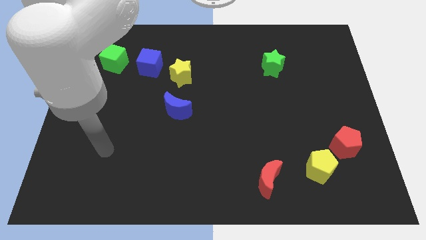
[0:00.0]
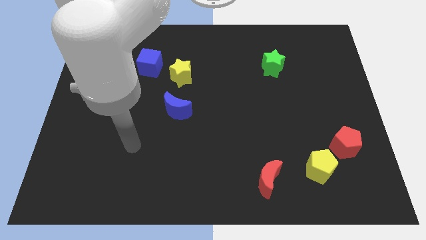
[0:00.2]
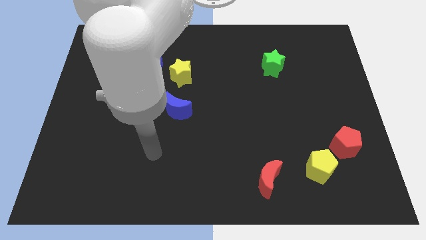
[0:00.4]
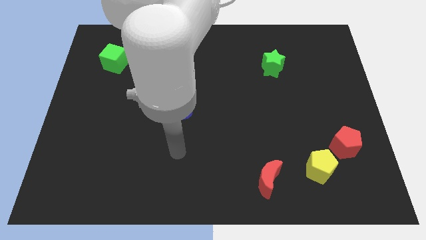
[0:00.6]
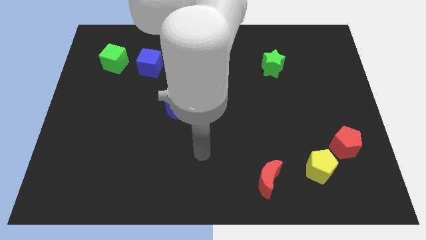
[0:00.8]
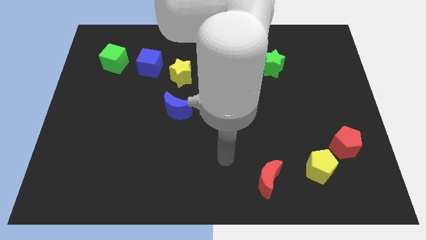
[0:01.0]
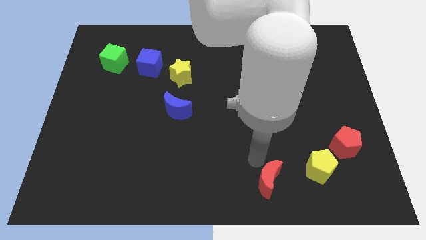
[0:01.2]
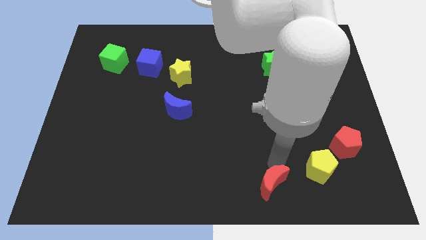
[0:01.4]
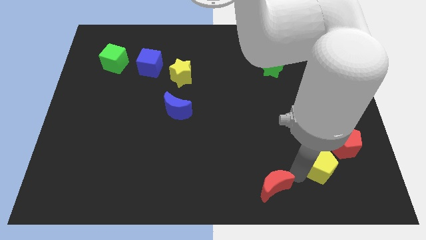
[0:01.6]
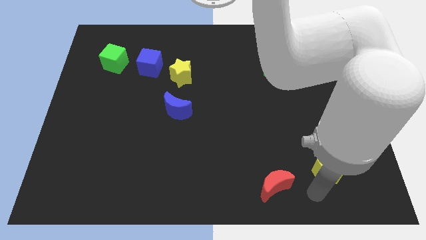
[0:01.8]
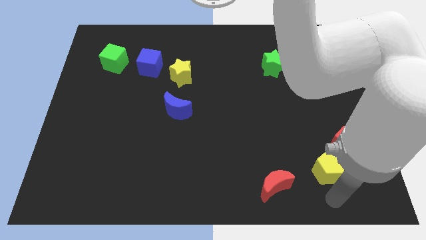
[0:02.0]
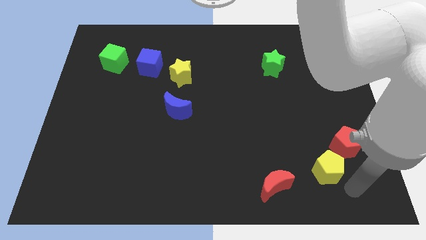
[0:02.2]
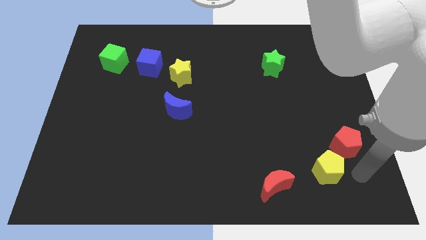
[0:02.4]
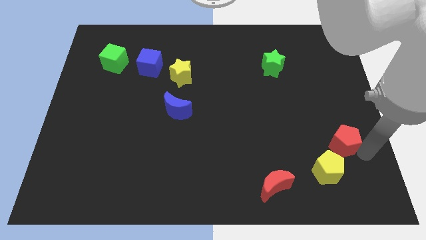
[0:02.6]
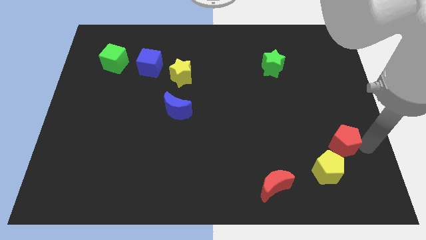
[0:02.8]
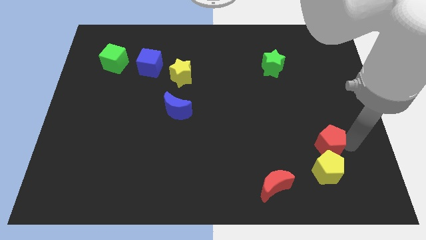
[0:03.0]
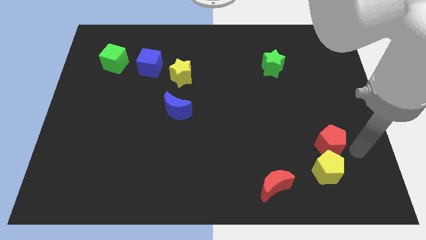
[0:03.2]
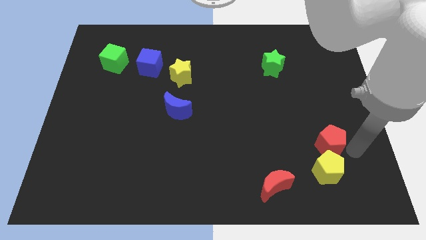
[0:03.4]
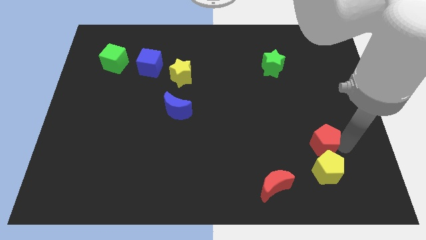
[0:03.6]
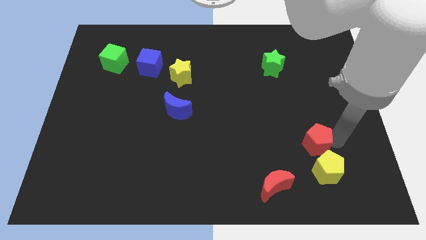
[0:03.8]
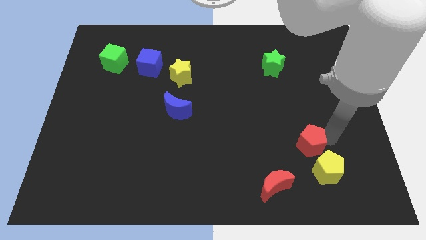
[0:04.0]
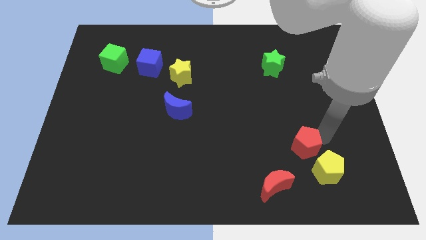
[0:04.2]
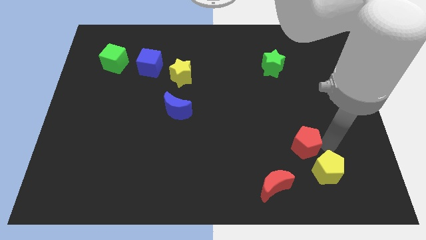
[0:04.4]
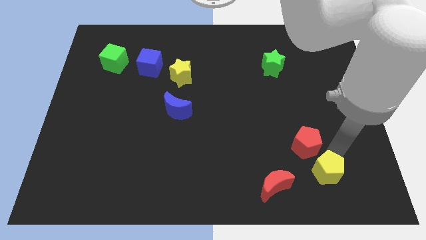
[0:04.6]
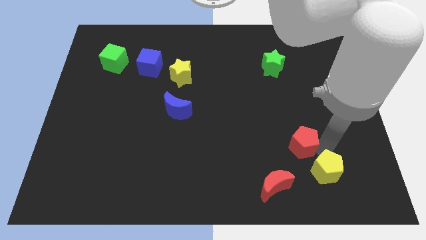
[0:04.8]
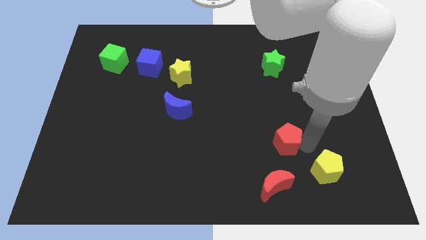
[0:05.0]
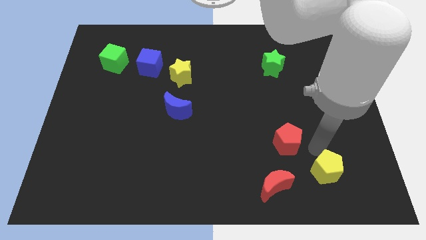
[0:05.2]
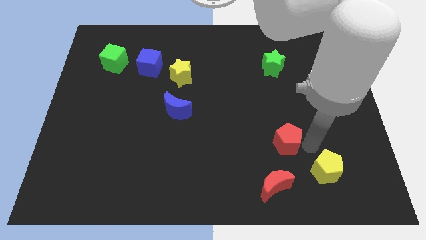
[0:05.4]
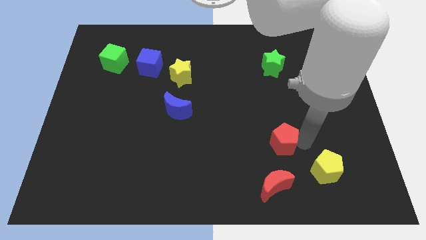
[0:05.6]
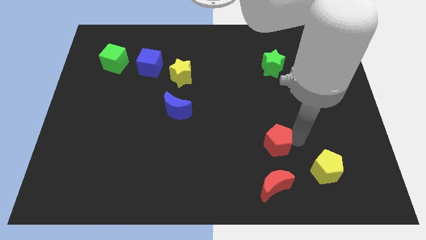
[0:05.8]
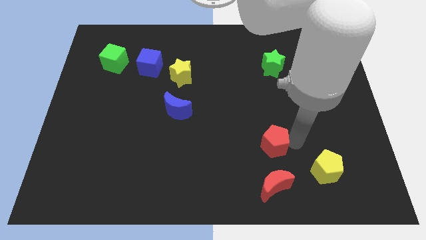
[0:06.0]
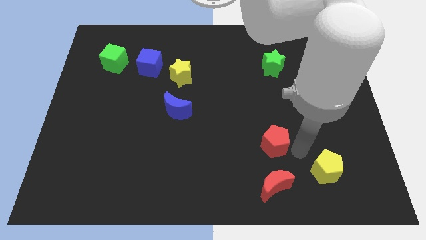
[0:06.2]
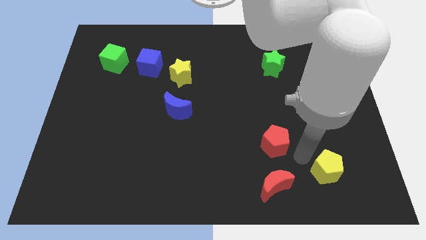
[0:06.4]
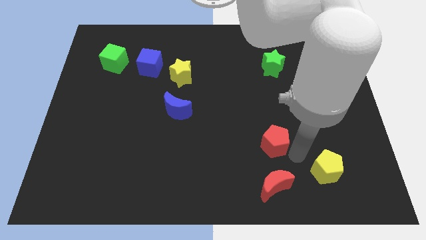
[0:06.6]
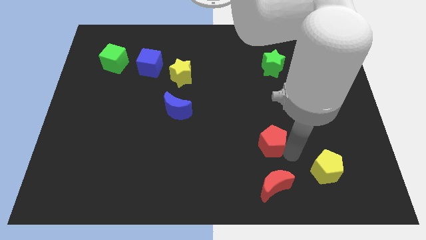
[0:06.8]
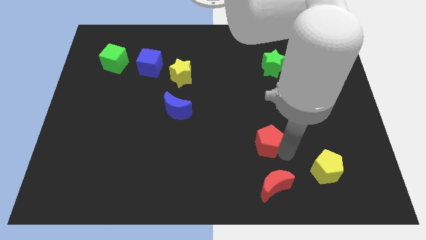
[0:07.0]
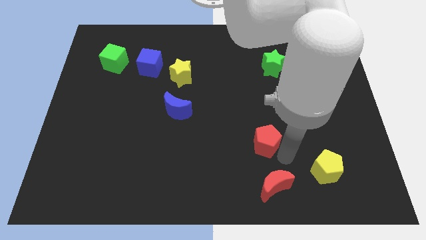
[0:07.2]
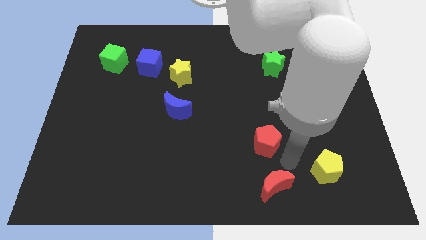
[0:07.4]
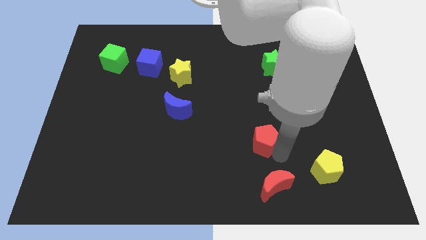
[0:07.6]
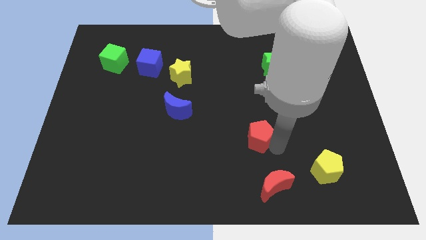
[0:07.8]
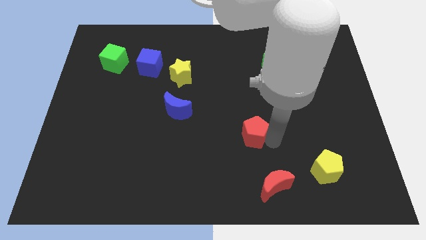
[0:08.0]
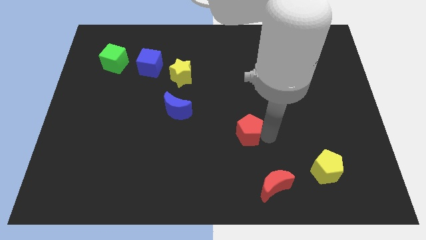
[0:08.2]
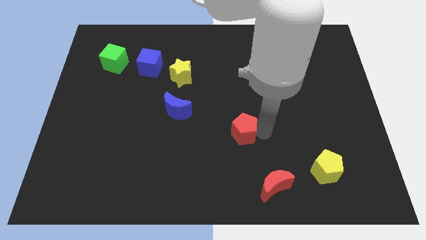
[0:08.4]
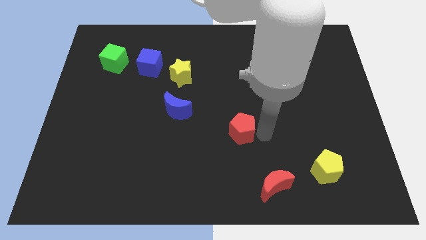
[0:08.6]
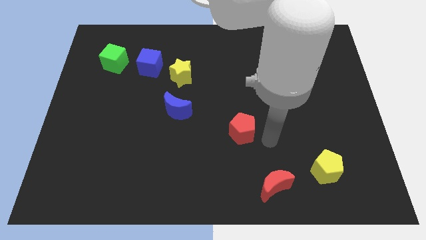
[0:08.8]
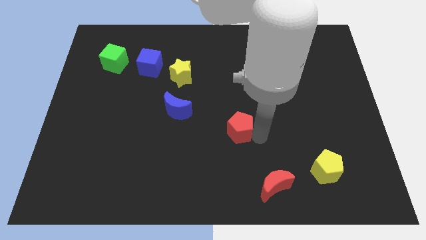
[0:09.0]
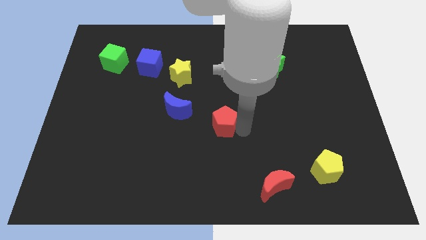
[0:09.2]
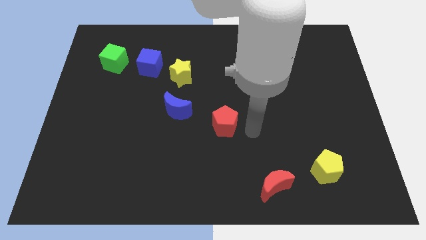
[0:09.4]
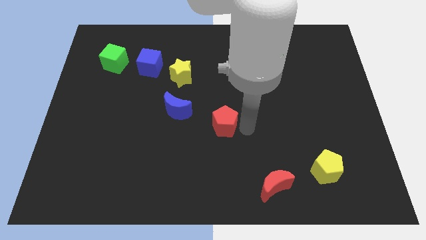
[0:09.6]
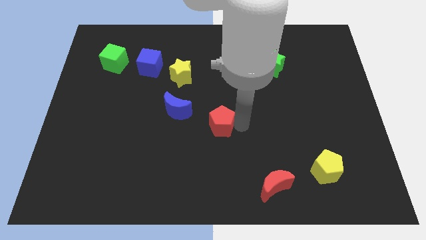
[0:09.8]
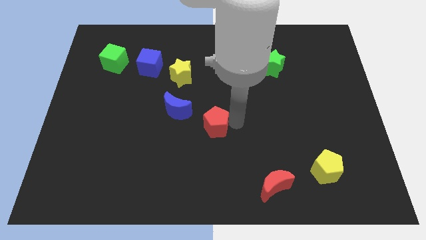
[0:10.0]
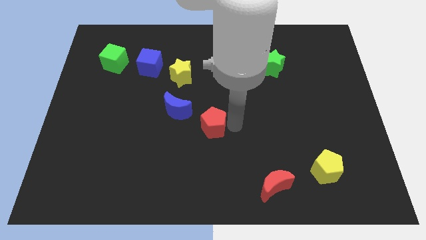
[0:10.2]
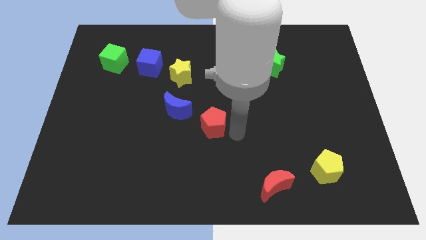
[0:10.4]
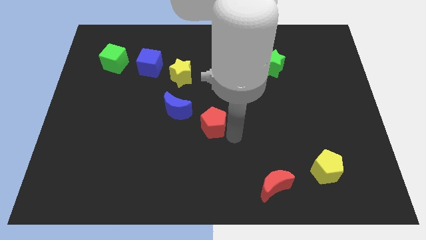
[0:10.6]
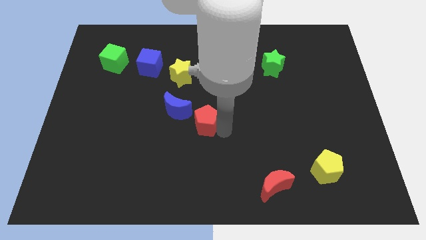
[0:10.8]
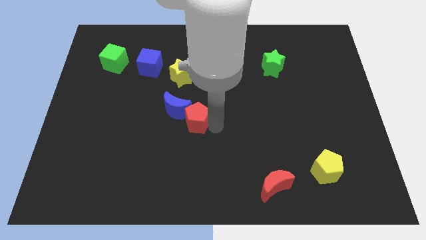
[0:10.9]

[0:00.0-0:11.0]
move the red pentagon towards the blue moon

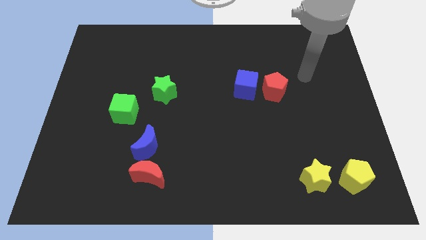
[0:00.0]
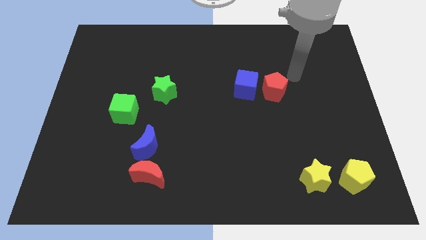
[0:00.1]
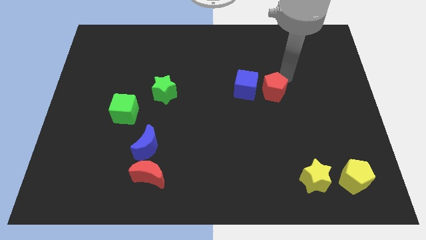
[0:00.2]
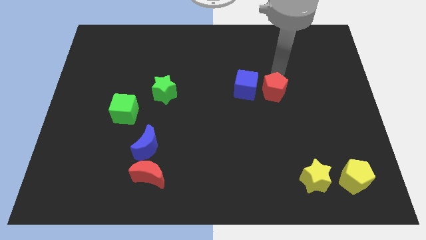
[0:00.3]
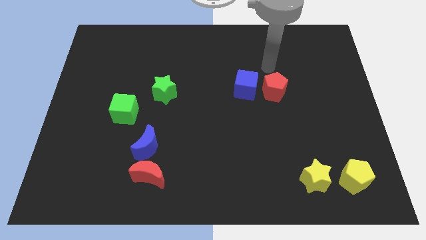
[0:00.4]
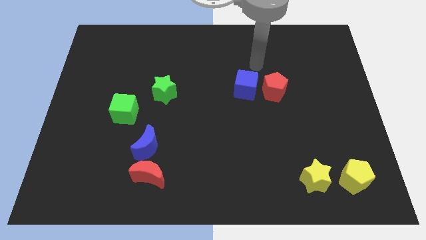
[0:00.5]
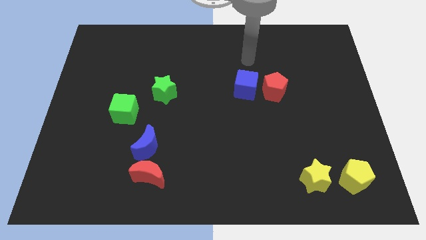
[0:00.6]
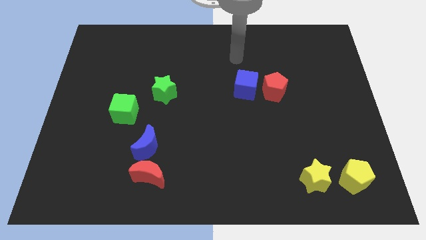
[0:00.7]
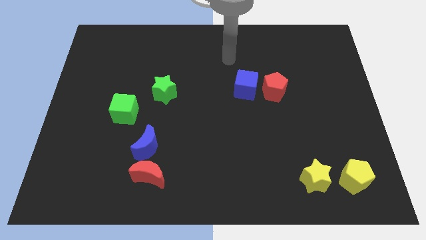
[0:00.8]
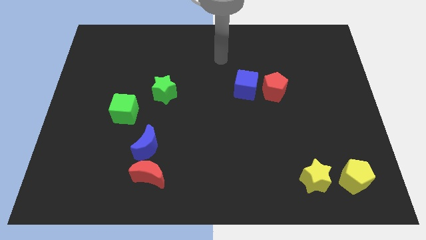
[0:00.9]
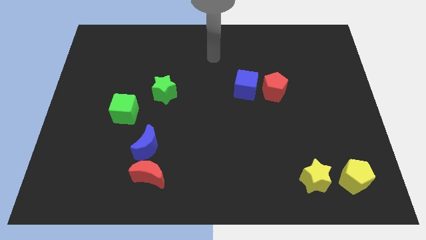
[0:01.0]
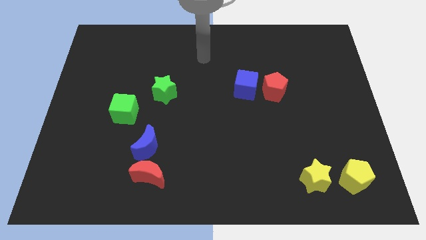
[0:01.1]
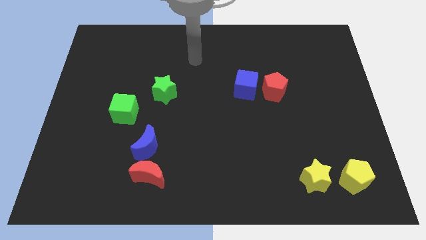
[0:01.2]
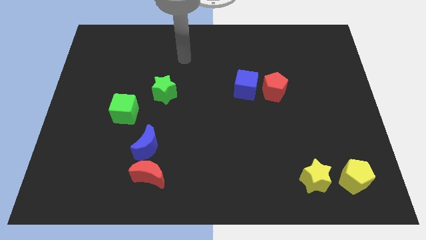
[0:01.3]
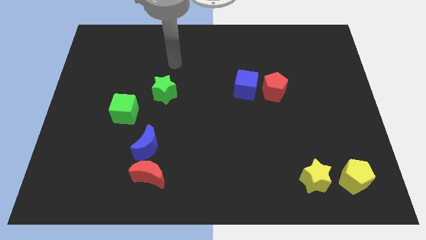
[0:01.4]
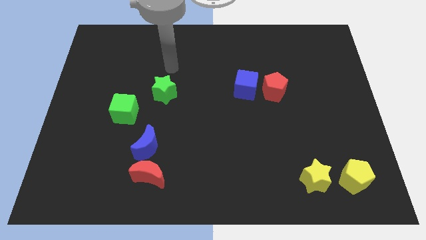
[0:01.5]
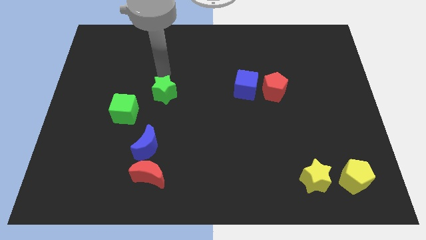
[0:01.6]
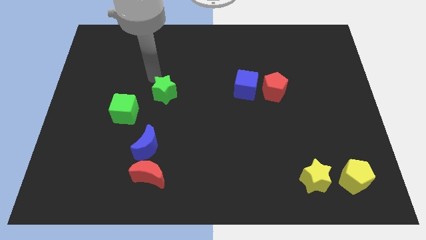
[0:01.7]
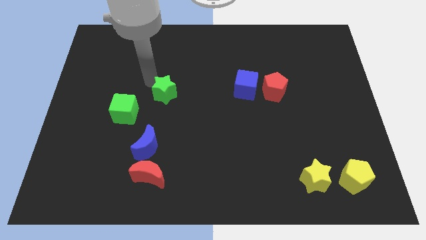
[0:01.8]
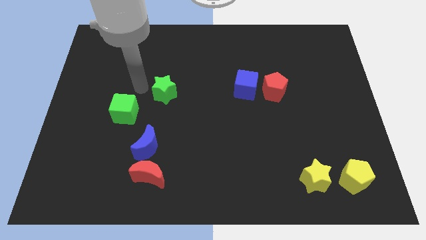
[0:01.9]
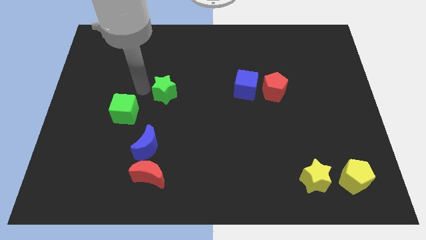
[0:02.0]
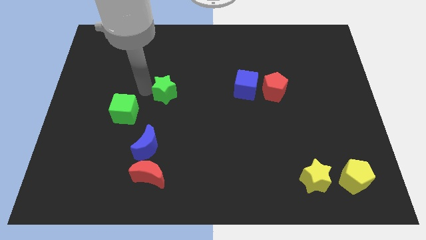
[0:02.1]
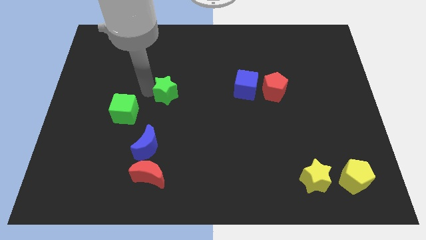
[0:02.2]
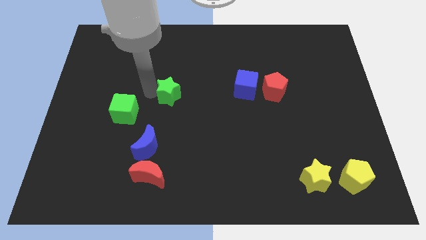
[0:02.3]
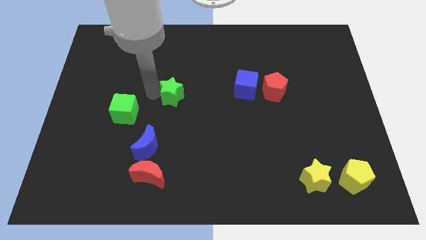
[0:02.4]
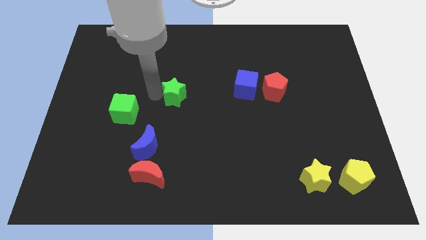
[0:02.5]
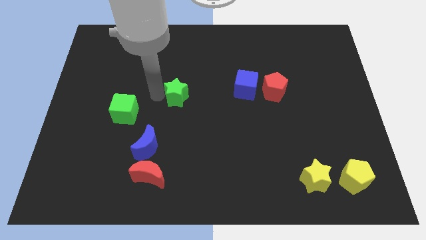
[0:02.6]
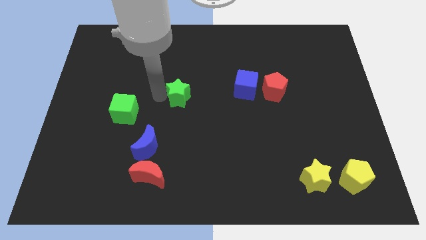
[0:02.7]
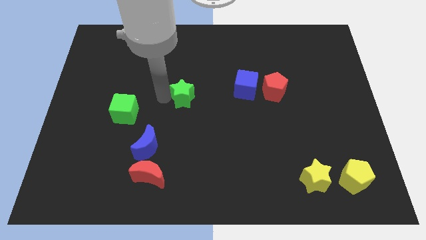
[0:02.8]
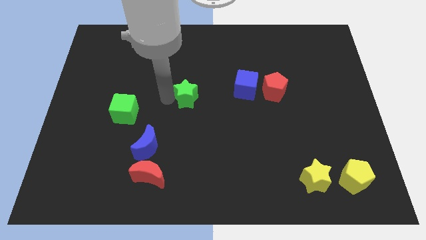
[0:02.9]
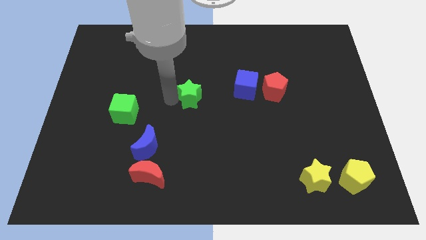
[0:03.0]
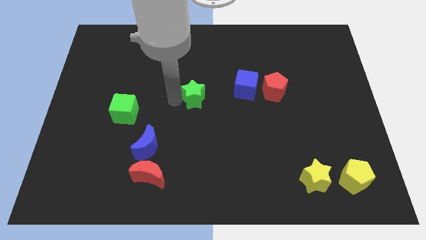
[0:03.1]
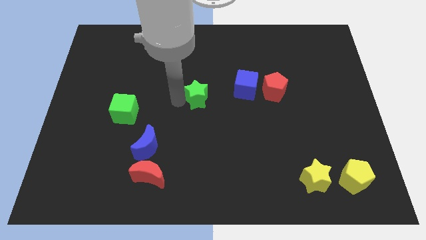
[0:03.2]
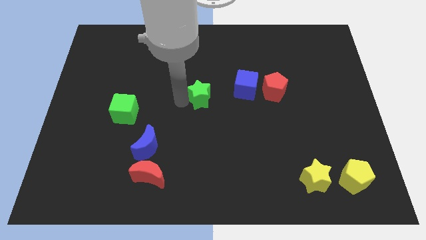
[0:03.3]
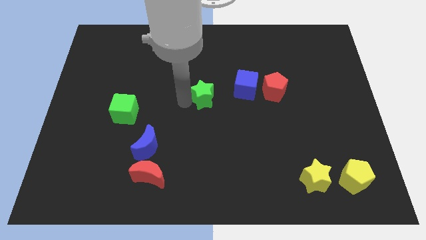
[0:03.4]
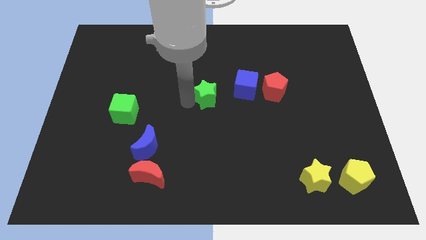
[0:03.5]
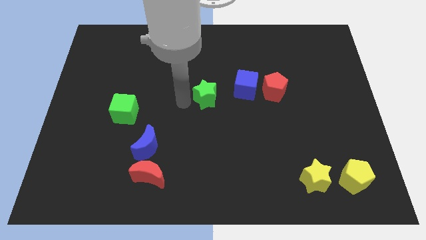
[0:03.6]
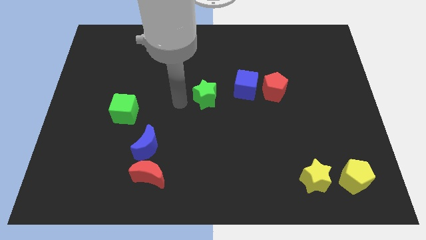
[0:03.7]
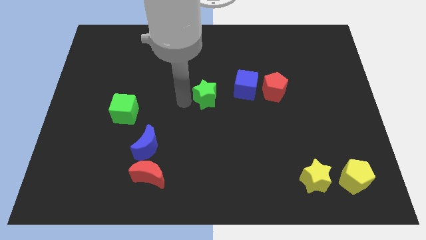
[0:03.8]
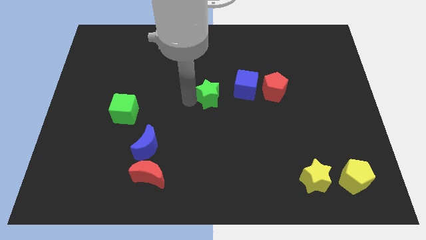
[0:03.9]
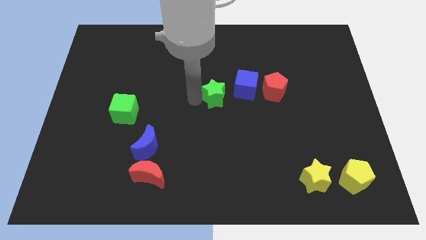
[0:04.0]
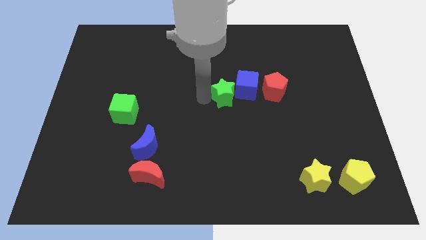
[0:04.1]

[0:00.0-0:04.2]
push the green star to the blue cube
